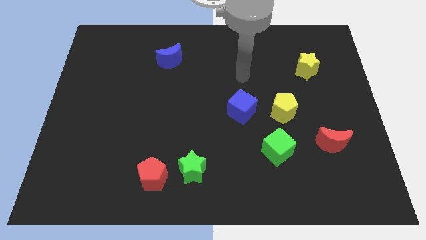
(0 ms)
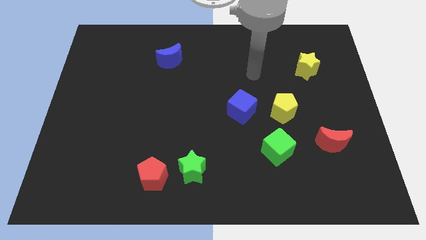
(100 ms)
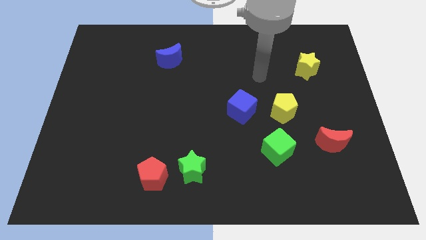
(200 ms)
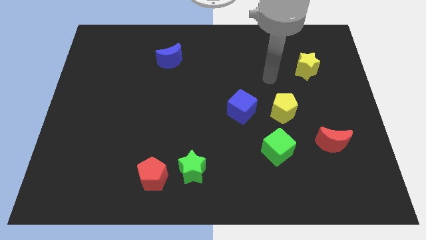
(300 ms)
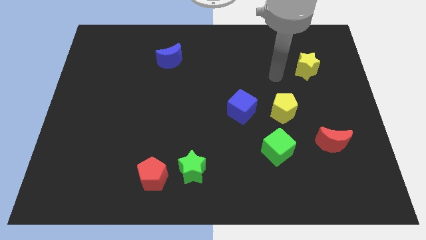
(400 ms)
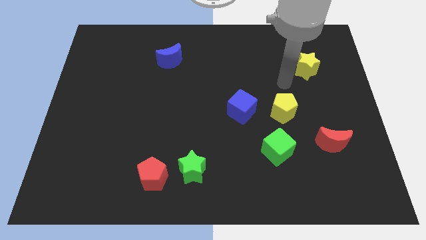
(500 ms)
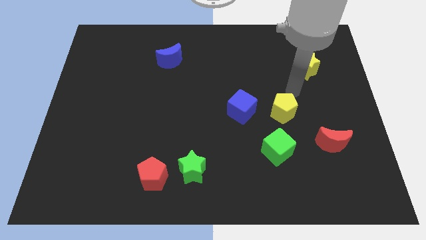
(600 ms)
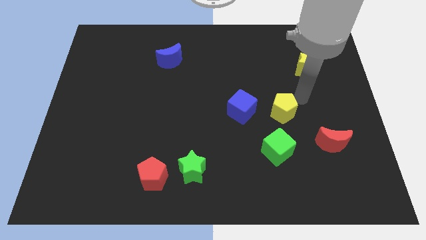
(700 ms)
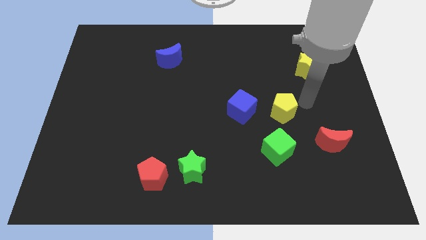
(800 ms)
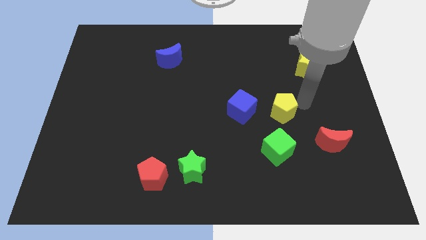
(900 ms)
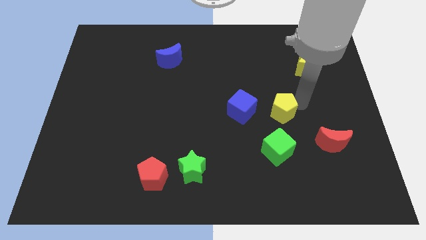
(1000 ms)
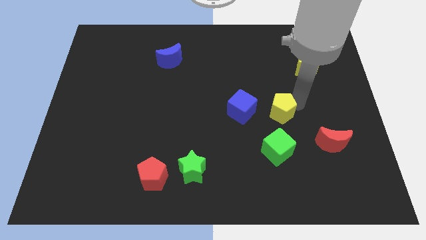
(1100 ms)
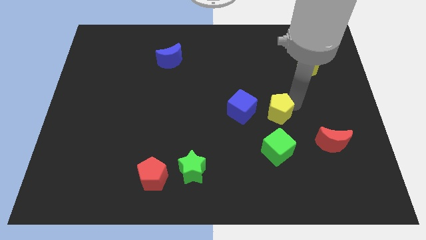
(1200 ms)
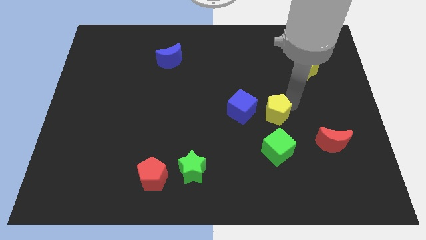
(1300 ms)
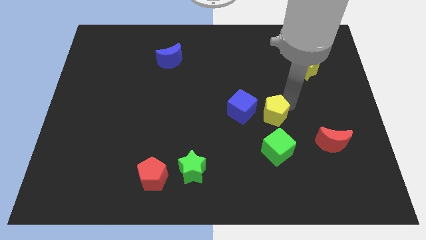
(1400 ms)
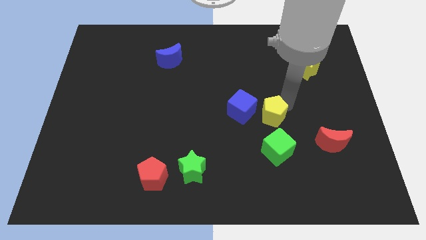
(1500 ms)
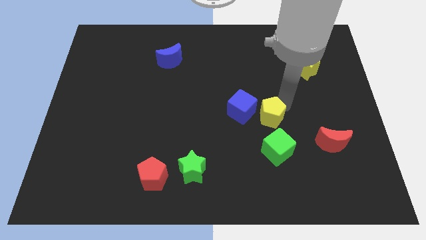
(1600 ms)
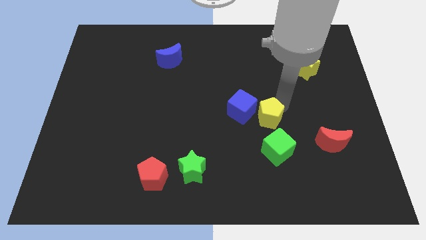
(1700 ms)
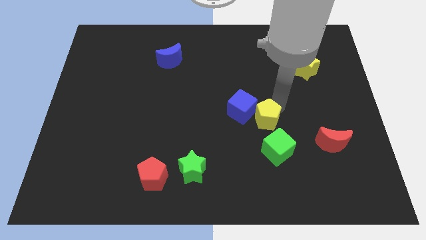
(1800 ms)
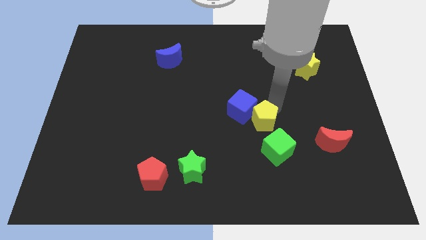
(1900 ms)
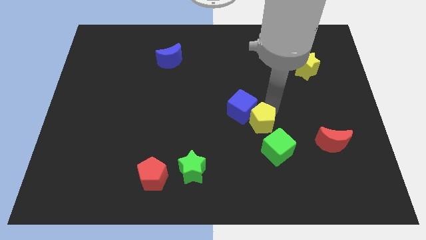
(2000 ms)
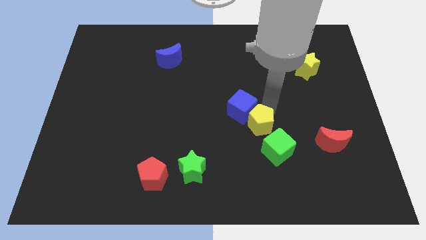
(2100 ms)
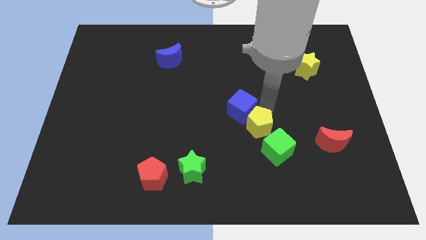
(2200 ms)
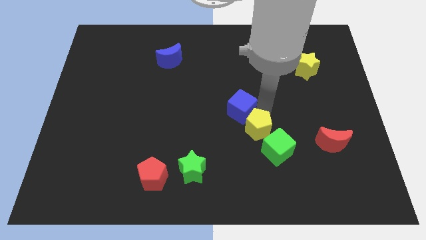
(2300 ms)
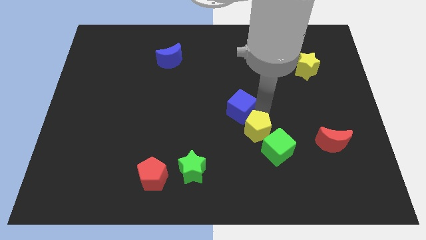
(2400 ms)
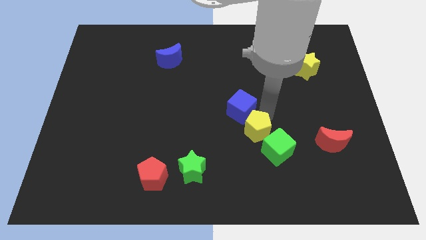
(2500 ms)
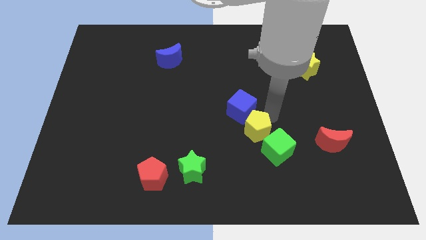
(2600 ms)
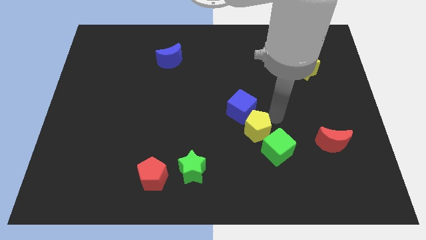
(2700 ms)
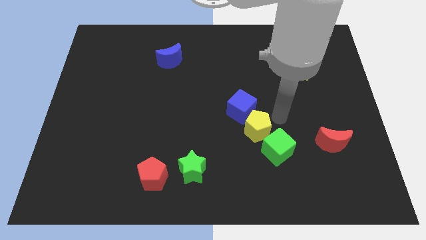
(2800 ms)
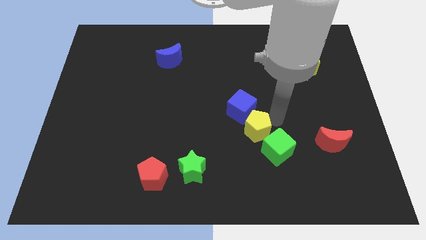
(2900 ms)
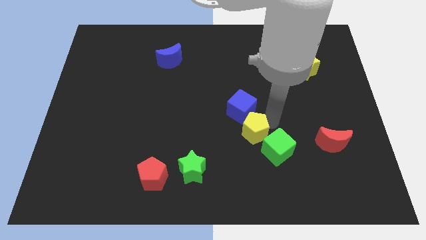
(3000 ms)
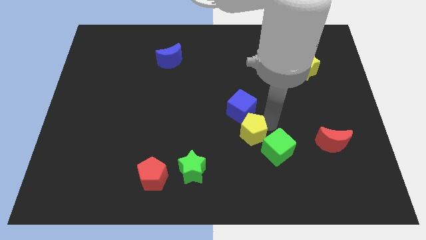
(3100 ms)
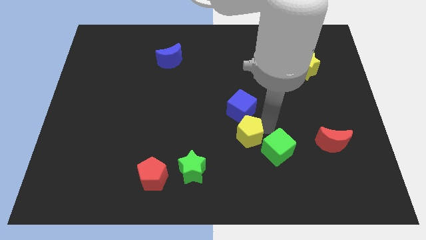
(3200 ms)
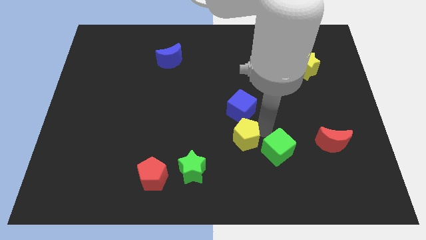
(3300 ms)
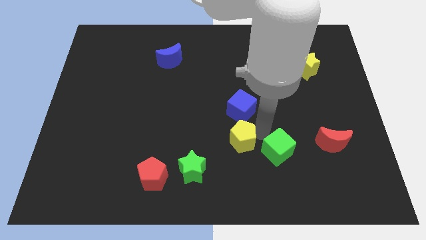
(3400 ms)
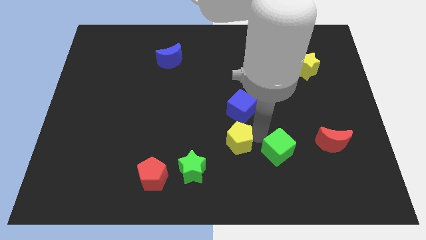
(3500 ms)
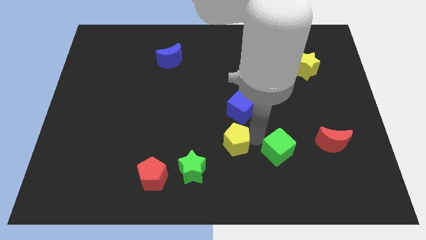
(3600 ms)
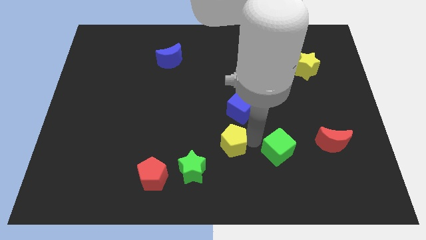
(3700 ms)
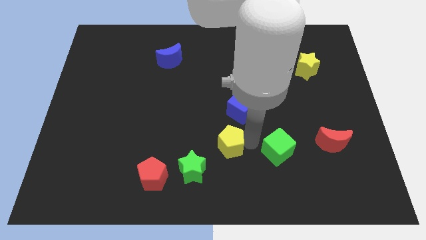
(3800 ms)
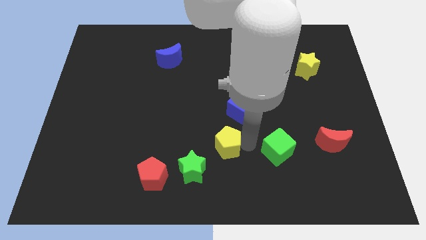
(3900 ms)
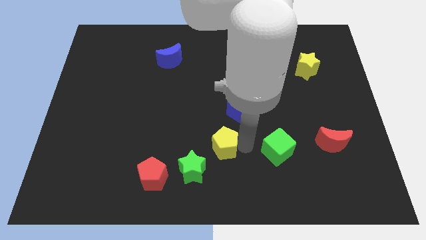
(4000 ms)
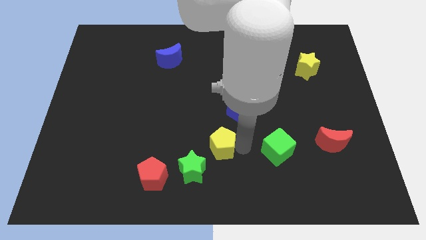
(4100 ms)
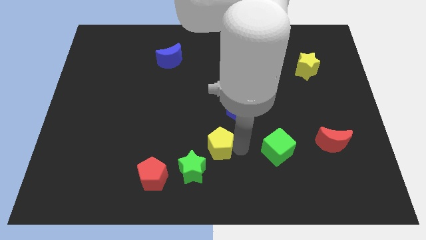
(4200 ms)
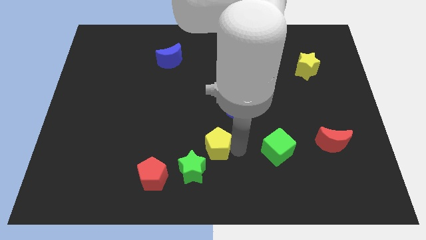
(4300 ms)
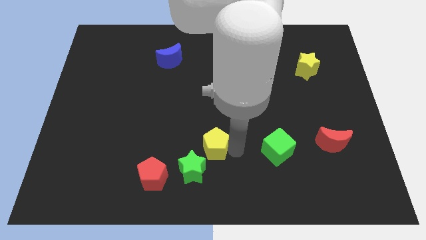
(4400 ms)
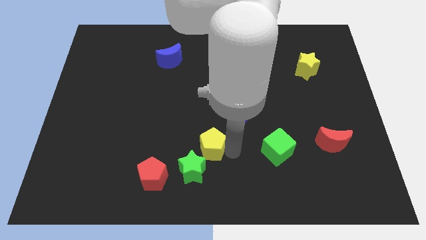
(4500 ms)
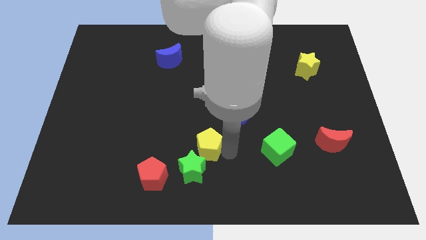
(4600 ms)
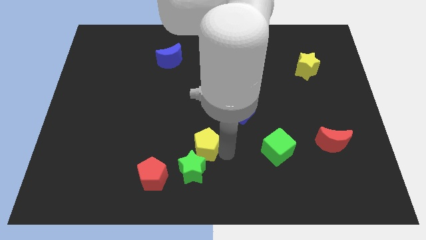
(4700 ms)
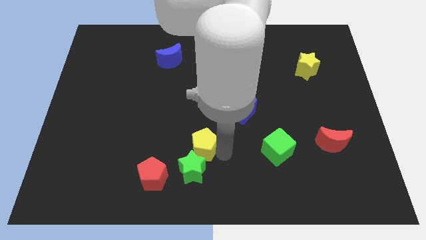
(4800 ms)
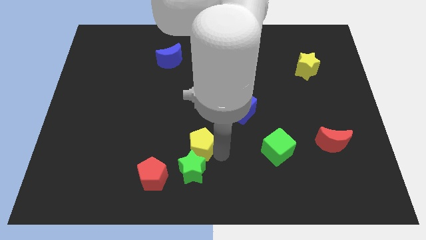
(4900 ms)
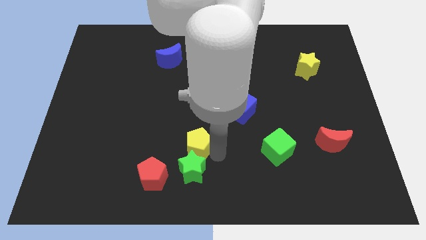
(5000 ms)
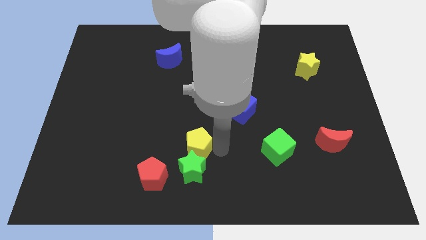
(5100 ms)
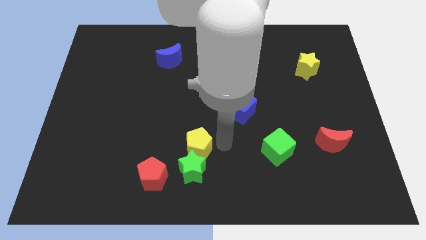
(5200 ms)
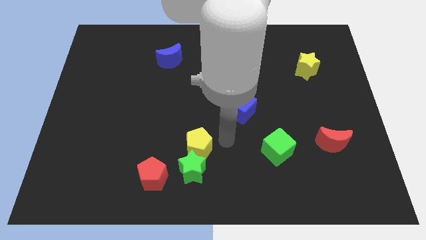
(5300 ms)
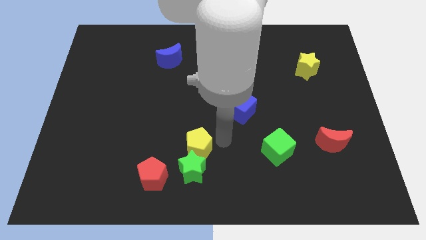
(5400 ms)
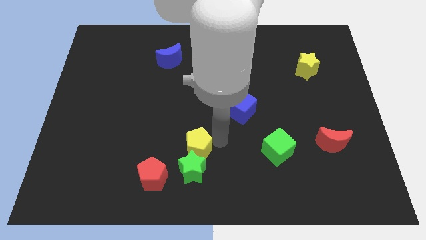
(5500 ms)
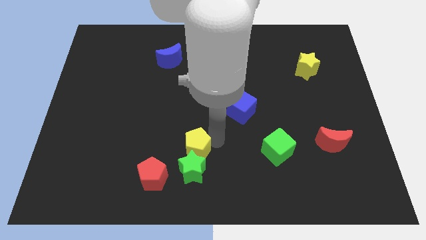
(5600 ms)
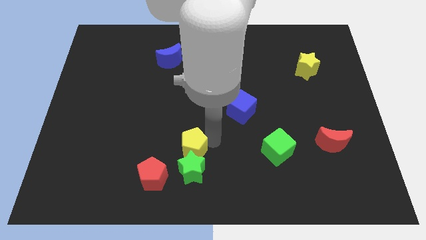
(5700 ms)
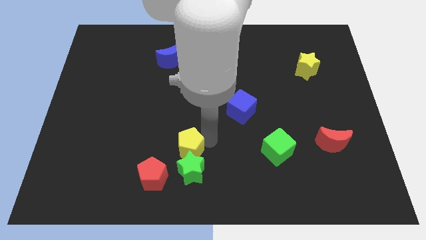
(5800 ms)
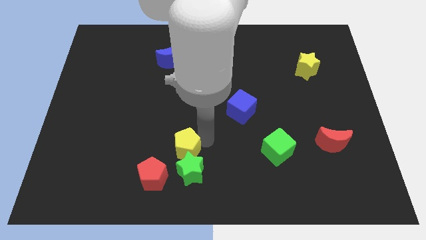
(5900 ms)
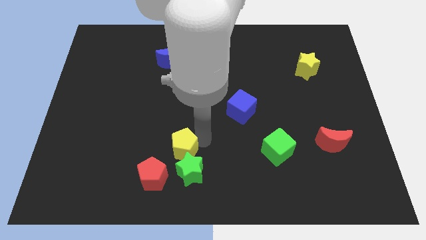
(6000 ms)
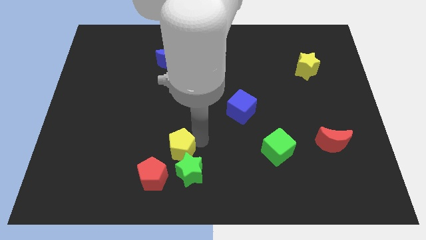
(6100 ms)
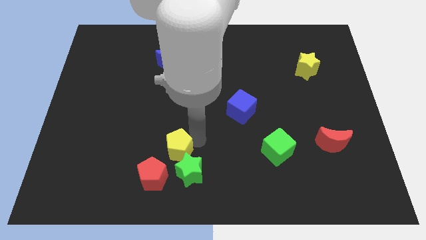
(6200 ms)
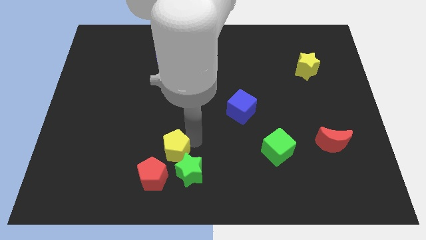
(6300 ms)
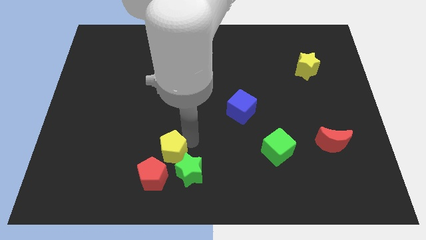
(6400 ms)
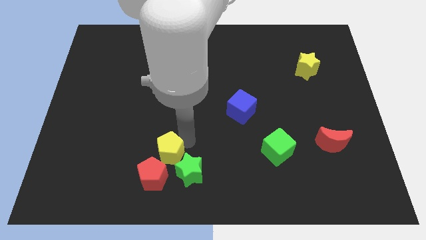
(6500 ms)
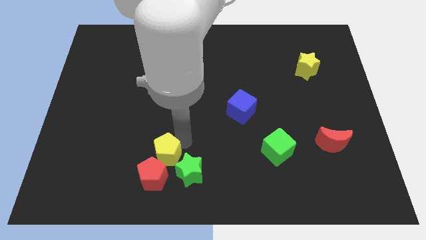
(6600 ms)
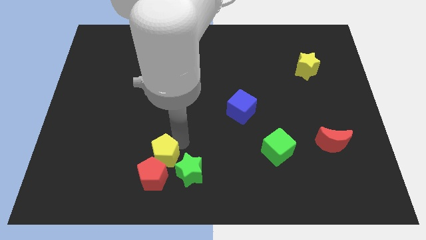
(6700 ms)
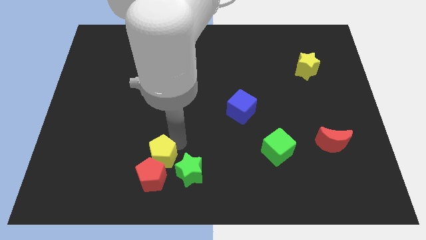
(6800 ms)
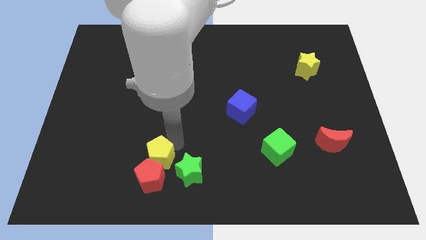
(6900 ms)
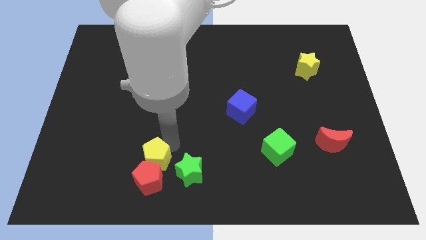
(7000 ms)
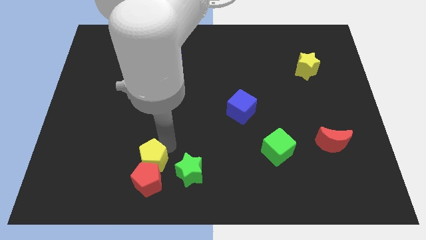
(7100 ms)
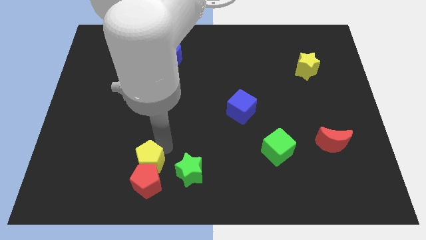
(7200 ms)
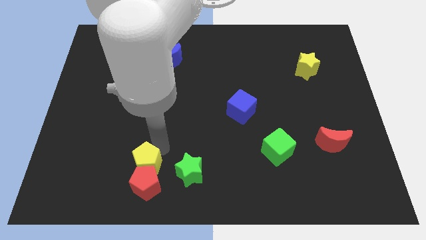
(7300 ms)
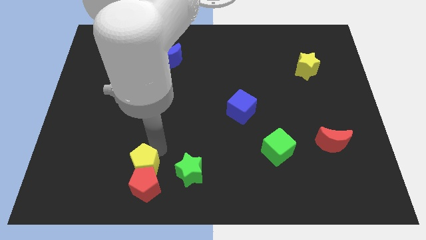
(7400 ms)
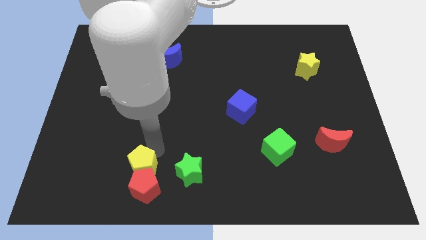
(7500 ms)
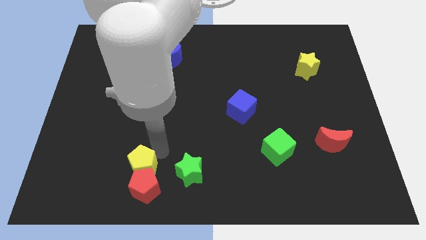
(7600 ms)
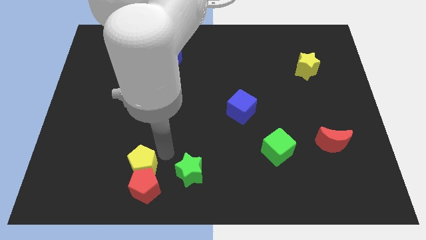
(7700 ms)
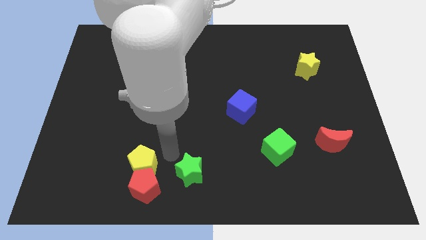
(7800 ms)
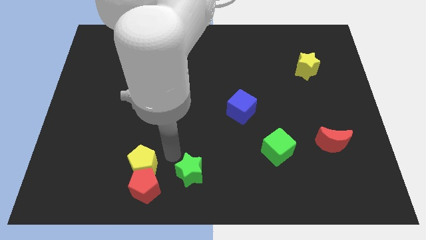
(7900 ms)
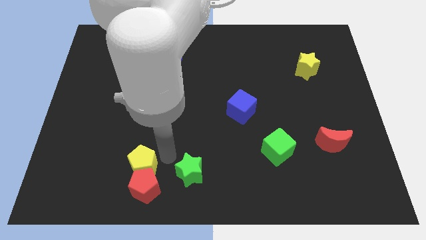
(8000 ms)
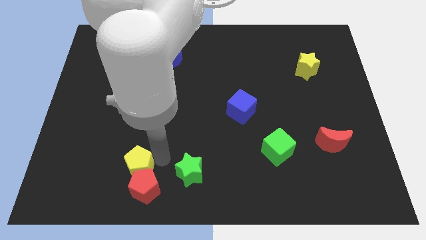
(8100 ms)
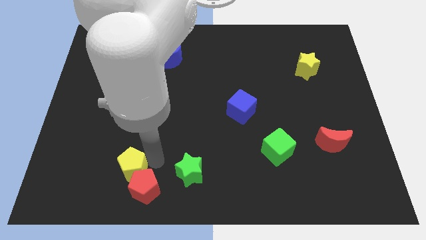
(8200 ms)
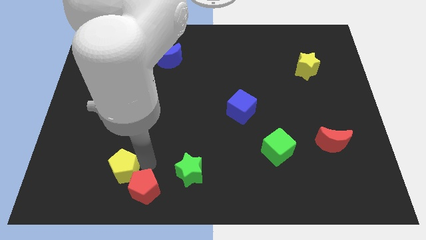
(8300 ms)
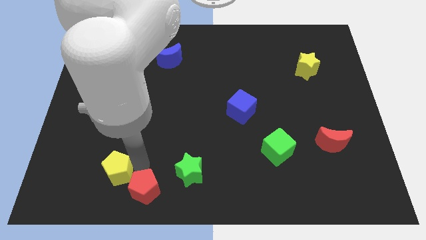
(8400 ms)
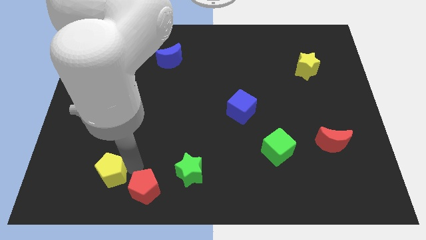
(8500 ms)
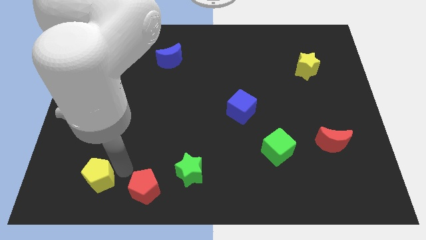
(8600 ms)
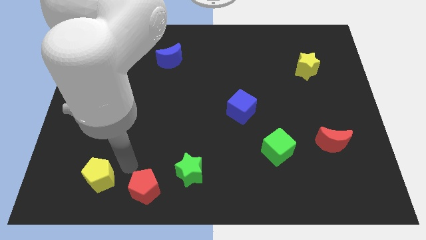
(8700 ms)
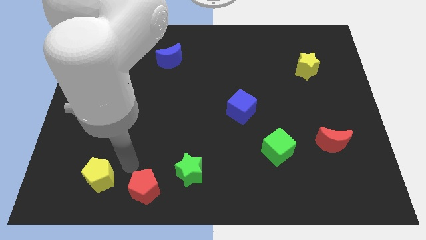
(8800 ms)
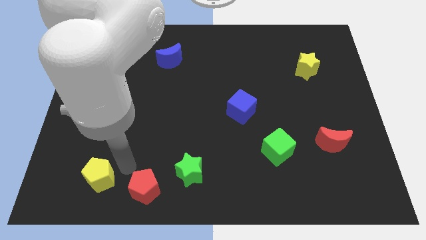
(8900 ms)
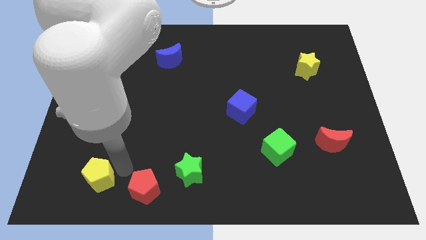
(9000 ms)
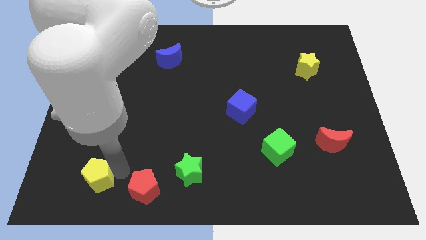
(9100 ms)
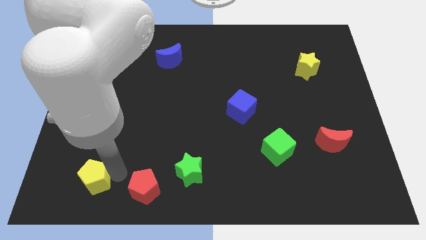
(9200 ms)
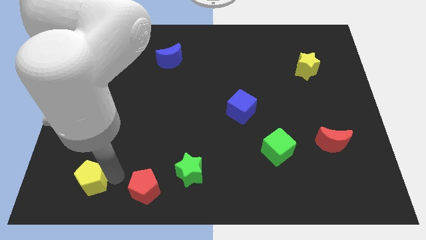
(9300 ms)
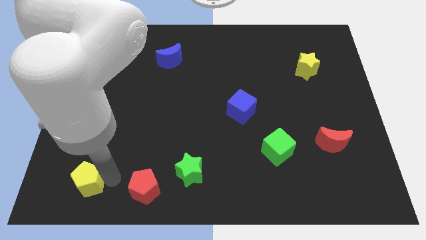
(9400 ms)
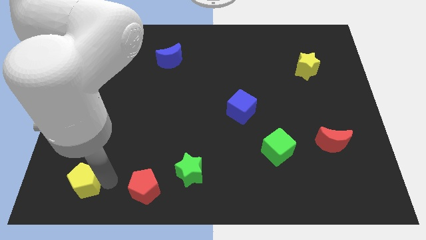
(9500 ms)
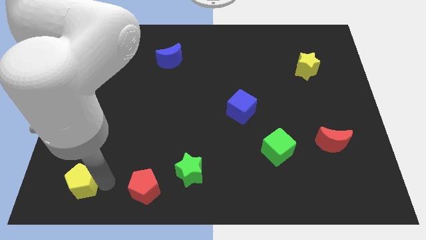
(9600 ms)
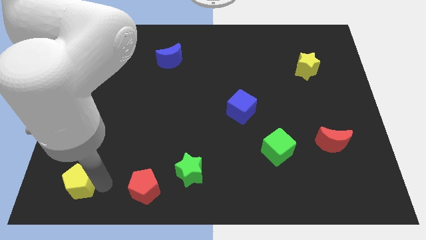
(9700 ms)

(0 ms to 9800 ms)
move the yellow pentagon to the bottom left of the board
